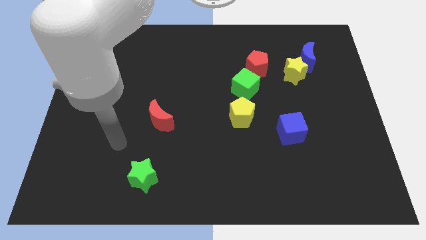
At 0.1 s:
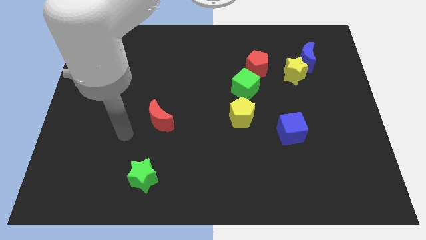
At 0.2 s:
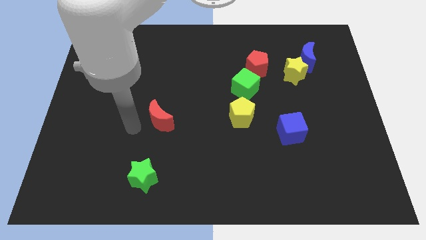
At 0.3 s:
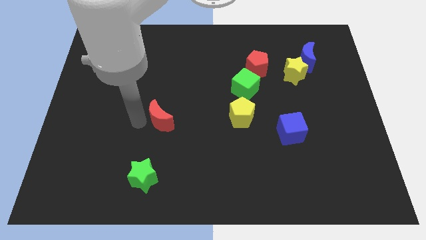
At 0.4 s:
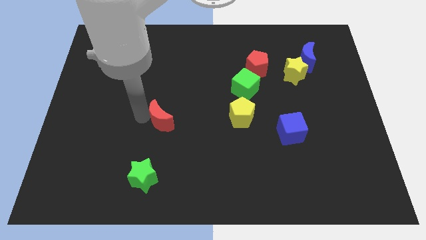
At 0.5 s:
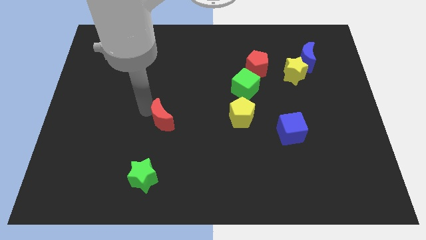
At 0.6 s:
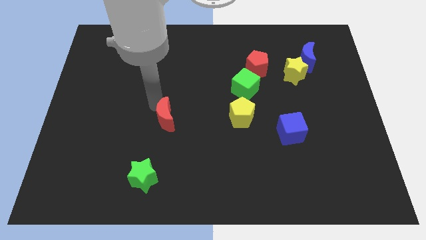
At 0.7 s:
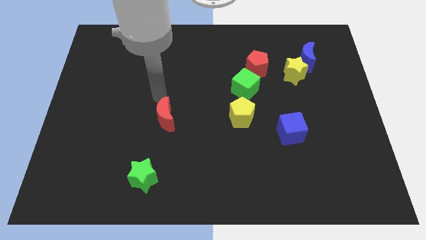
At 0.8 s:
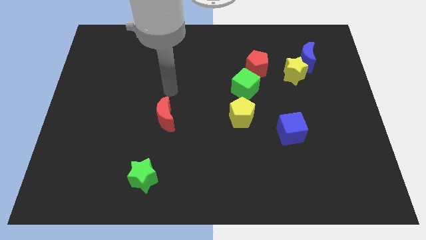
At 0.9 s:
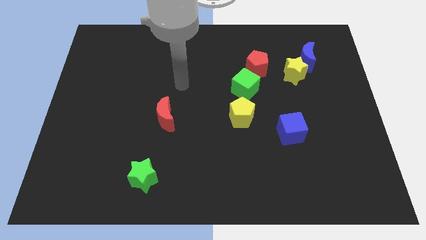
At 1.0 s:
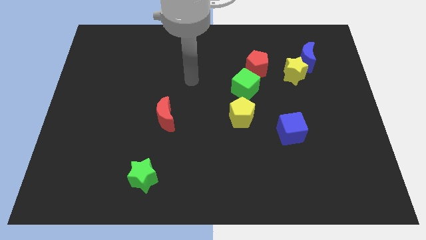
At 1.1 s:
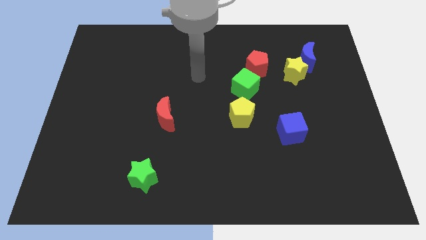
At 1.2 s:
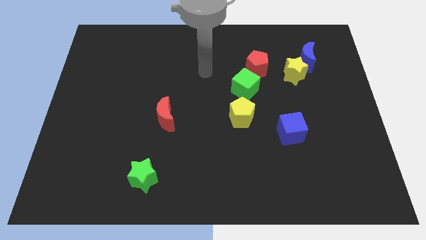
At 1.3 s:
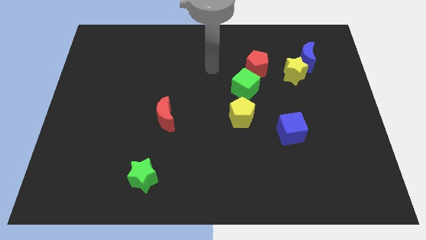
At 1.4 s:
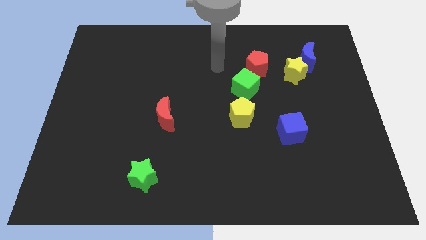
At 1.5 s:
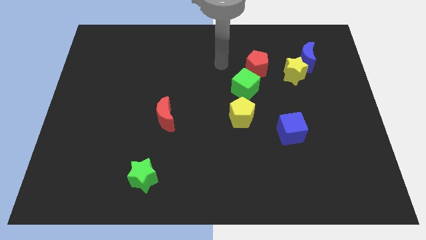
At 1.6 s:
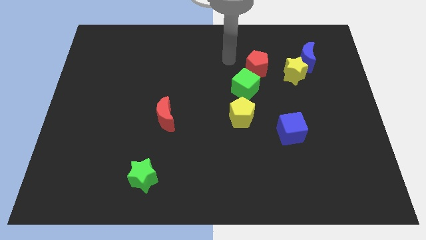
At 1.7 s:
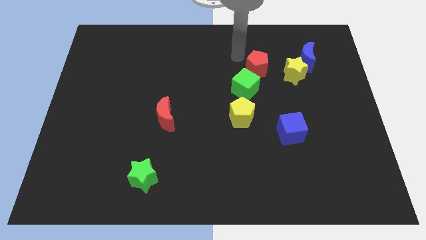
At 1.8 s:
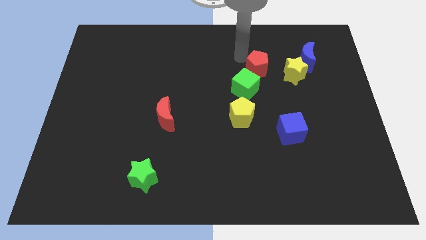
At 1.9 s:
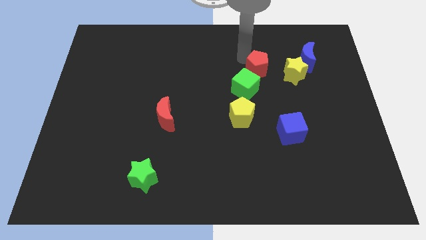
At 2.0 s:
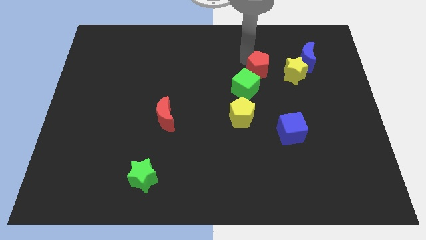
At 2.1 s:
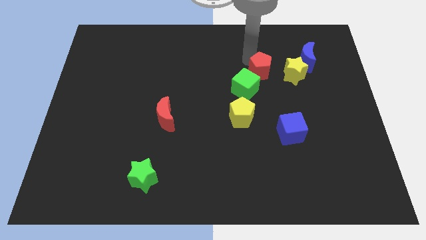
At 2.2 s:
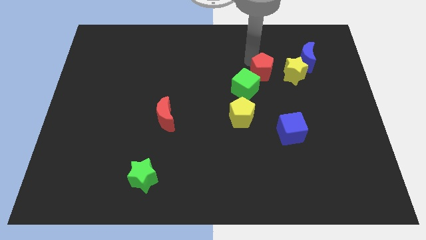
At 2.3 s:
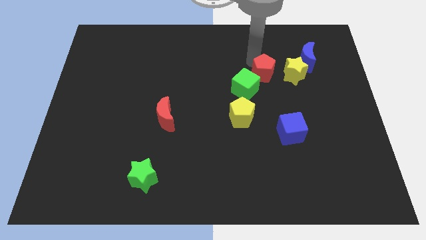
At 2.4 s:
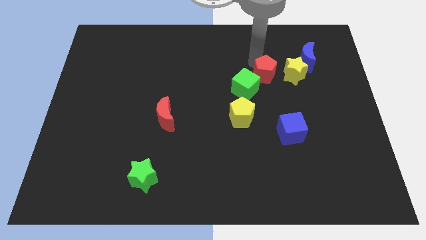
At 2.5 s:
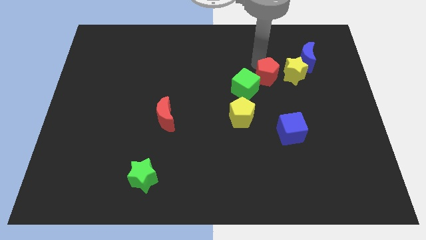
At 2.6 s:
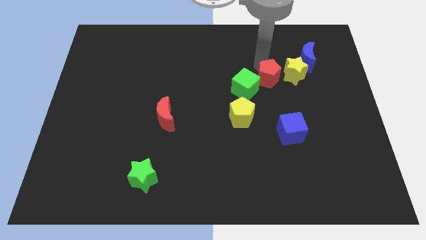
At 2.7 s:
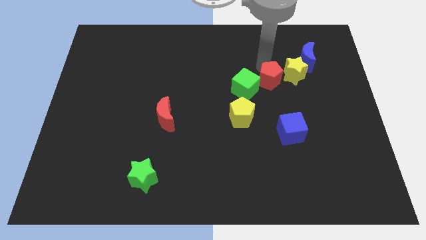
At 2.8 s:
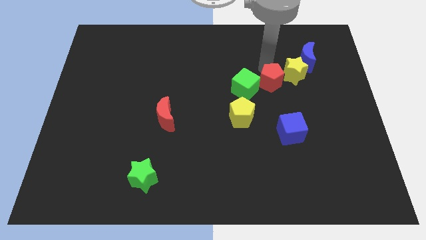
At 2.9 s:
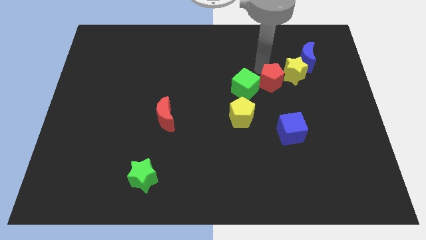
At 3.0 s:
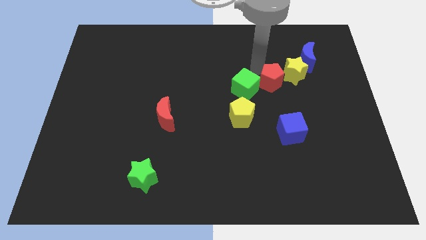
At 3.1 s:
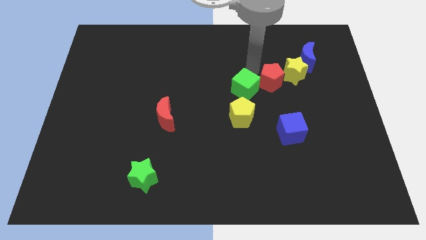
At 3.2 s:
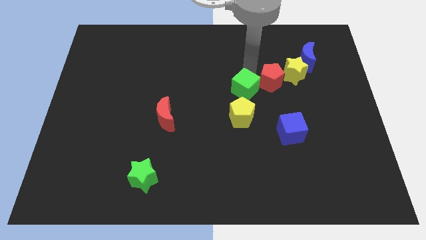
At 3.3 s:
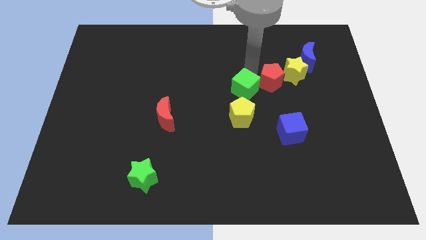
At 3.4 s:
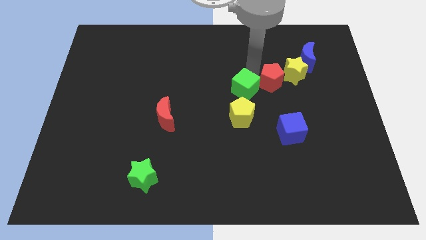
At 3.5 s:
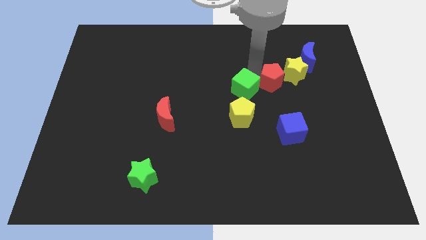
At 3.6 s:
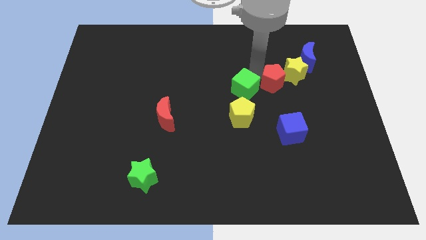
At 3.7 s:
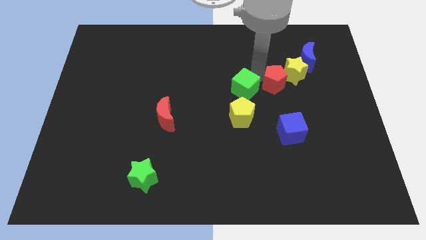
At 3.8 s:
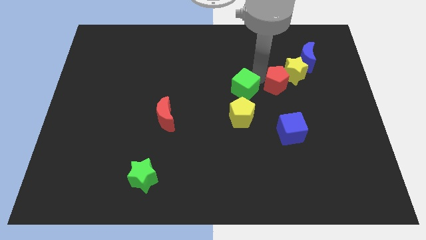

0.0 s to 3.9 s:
slightly slide the red pentagon downwards and right diagonally

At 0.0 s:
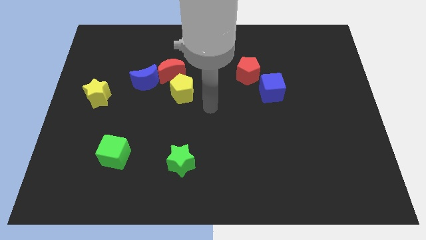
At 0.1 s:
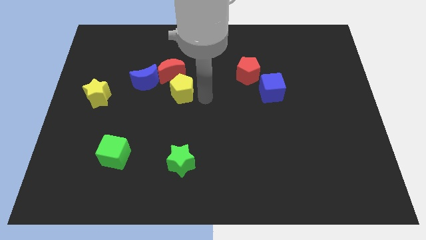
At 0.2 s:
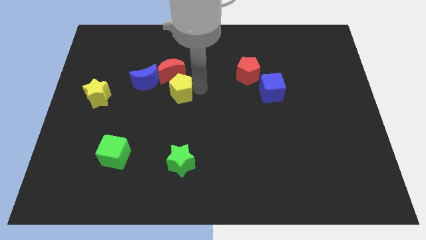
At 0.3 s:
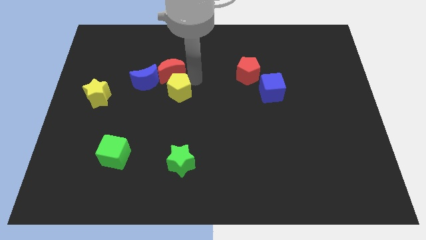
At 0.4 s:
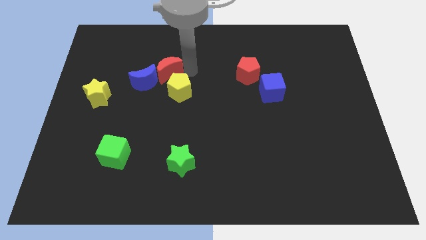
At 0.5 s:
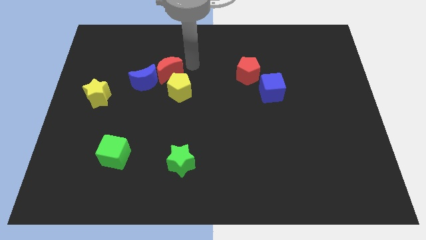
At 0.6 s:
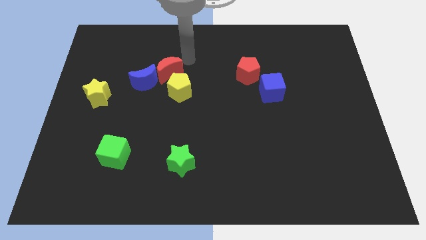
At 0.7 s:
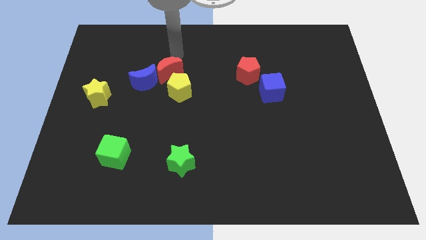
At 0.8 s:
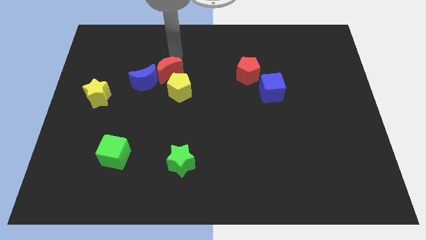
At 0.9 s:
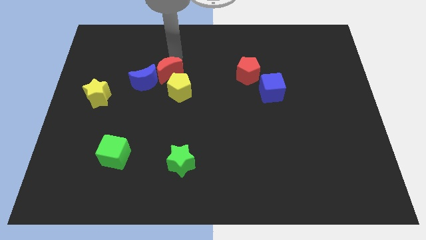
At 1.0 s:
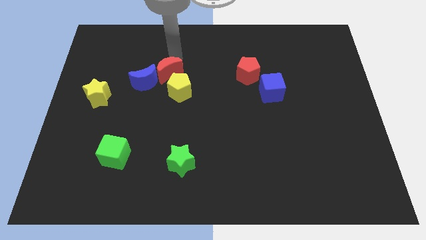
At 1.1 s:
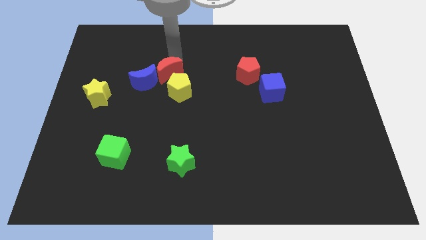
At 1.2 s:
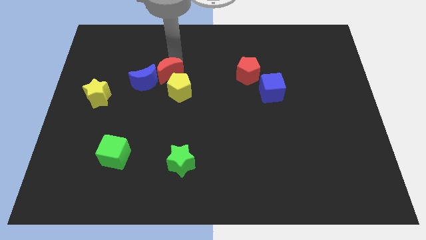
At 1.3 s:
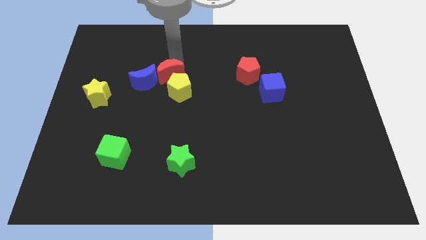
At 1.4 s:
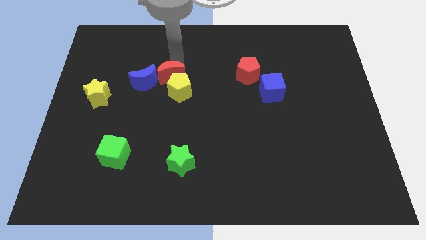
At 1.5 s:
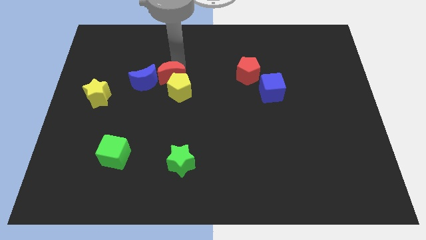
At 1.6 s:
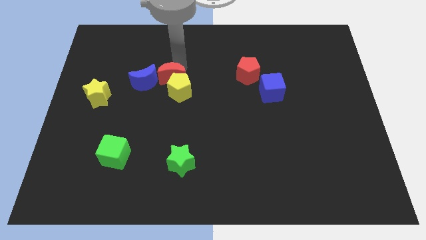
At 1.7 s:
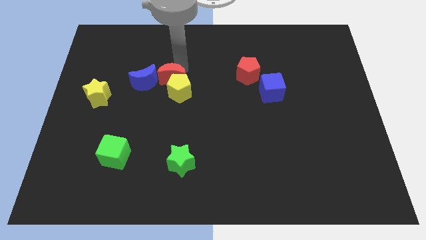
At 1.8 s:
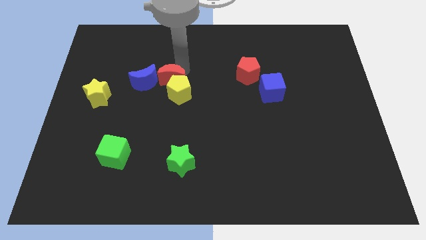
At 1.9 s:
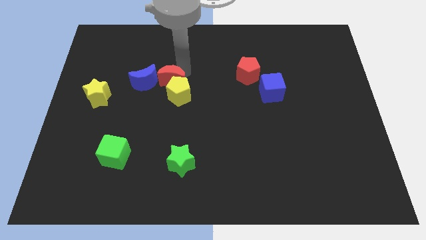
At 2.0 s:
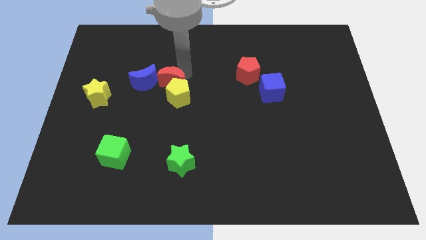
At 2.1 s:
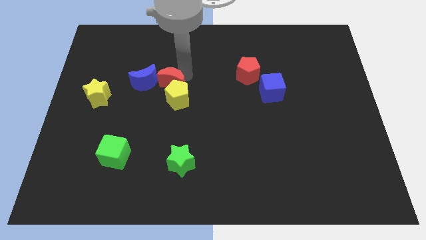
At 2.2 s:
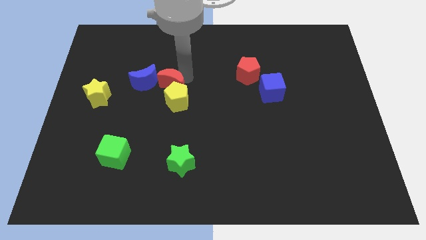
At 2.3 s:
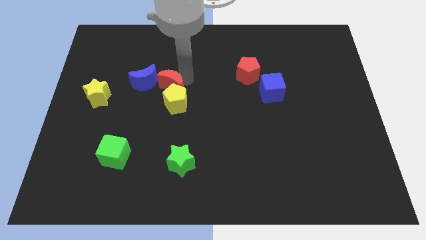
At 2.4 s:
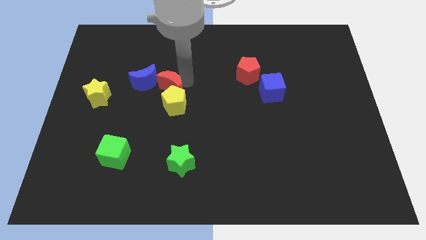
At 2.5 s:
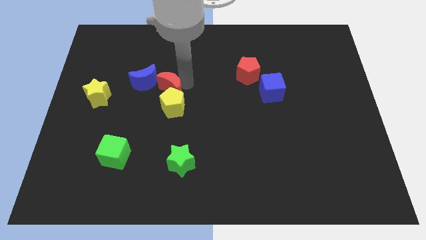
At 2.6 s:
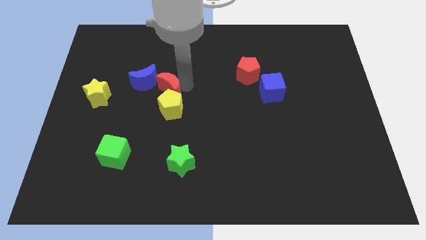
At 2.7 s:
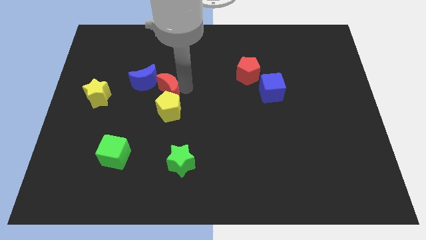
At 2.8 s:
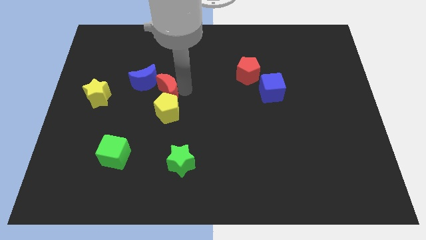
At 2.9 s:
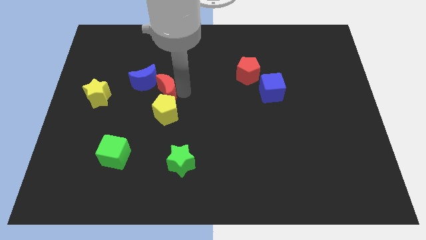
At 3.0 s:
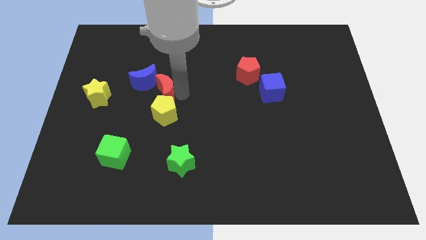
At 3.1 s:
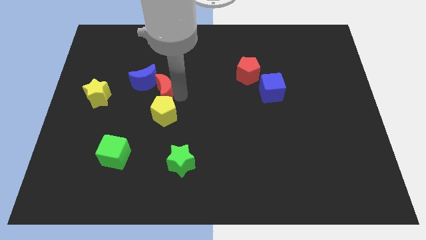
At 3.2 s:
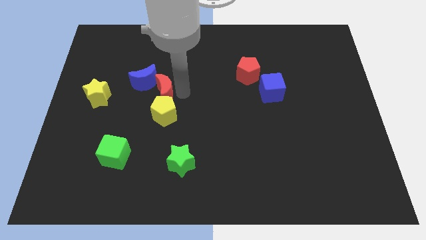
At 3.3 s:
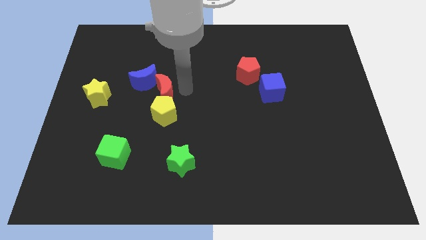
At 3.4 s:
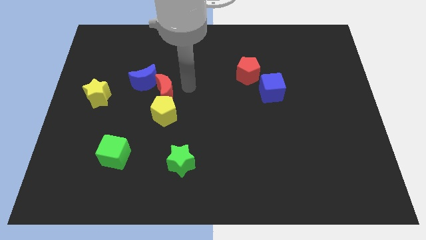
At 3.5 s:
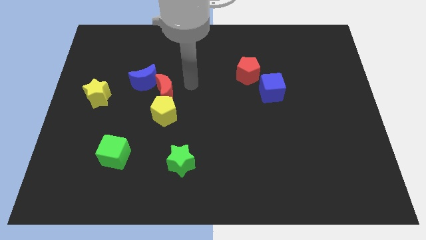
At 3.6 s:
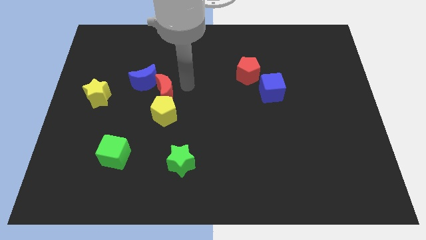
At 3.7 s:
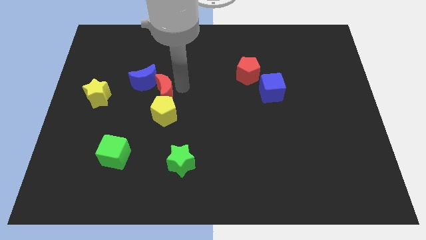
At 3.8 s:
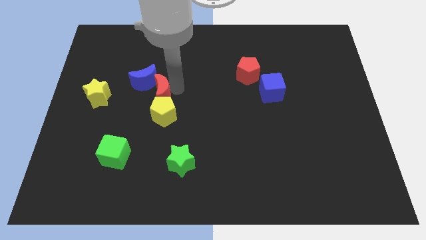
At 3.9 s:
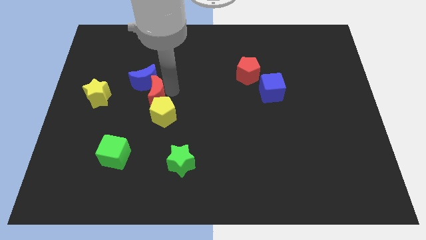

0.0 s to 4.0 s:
move the red moon down and then to the left a little bit

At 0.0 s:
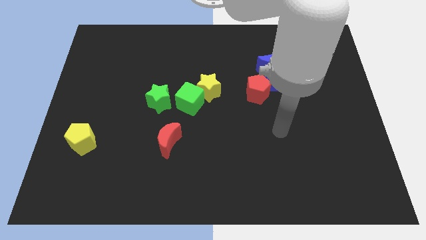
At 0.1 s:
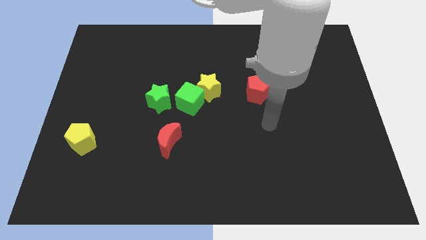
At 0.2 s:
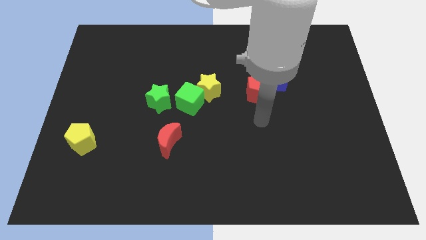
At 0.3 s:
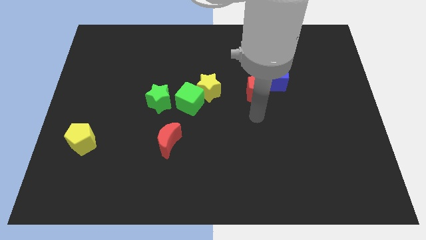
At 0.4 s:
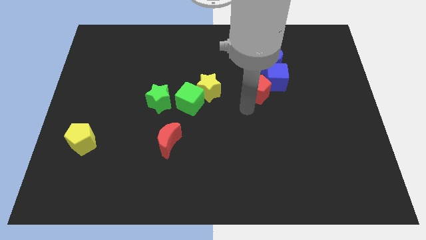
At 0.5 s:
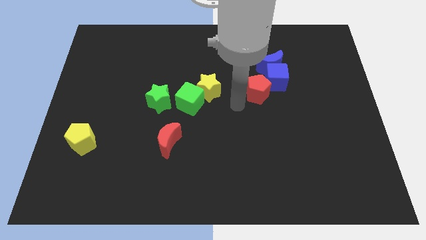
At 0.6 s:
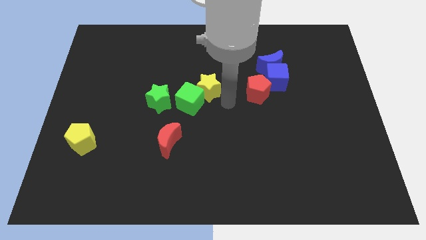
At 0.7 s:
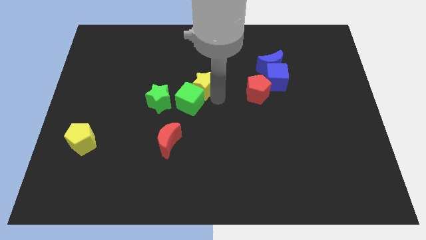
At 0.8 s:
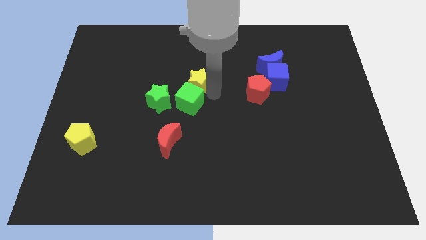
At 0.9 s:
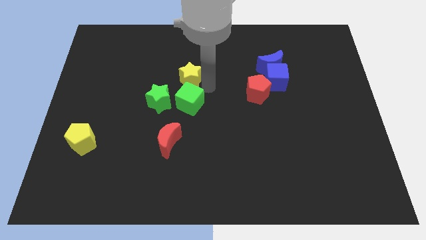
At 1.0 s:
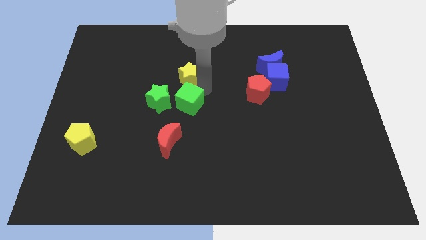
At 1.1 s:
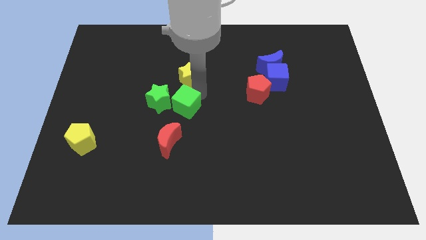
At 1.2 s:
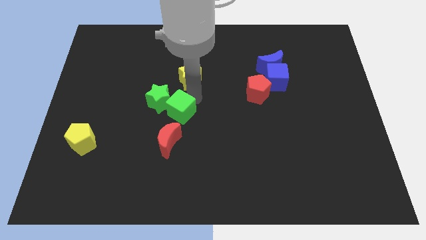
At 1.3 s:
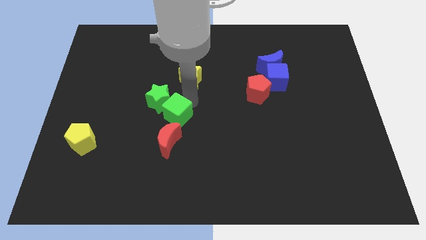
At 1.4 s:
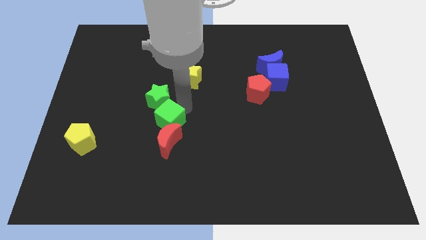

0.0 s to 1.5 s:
slide the green cube slightly downwards and left
